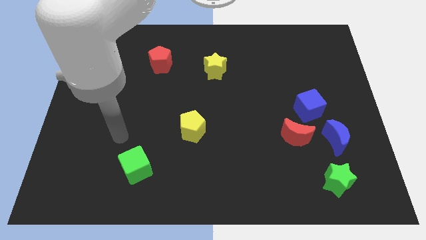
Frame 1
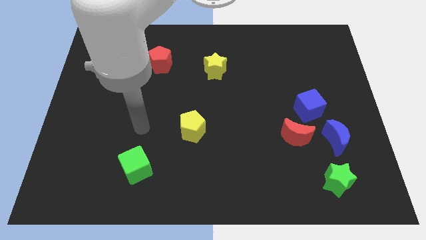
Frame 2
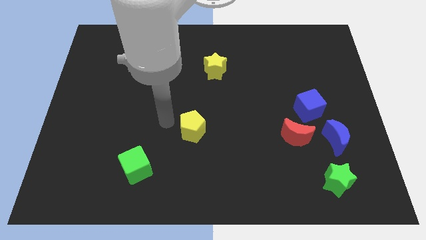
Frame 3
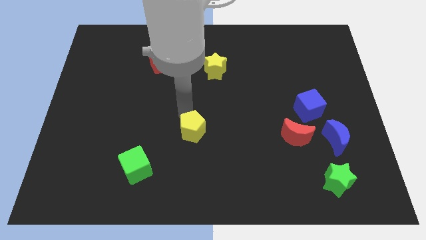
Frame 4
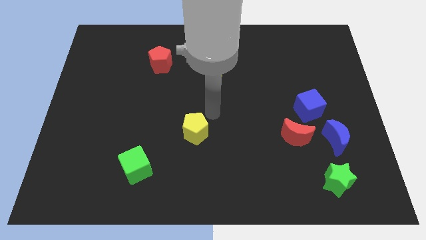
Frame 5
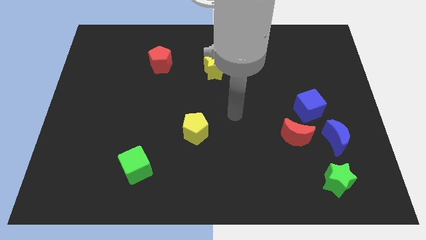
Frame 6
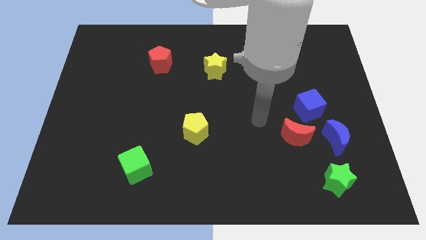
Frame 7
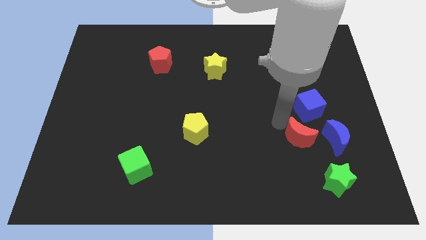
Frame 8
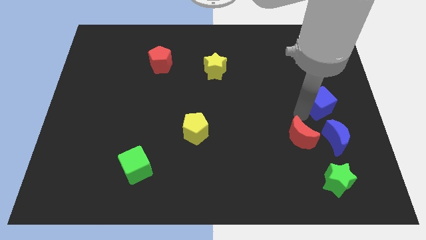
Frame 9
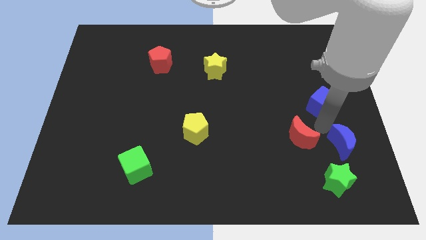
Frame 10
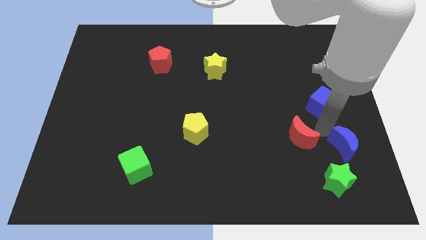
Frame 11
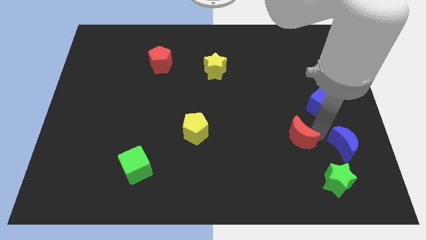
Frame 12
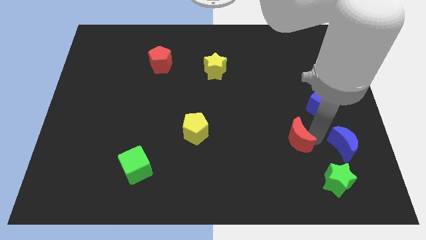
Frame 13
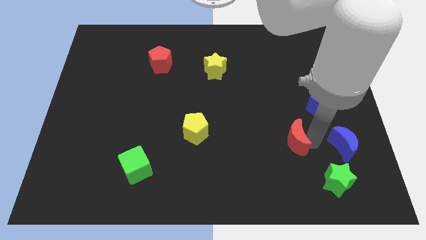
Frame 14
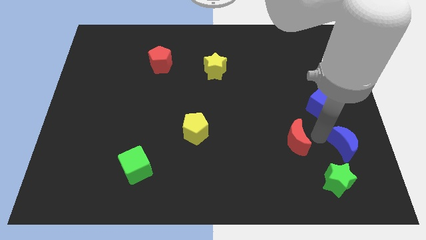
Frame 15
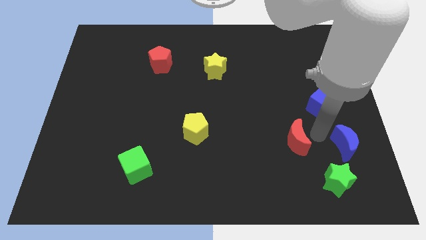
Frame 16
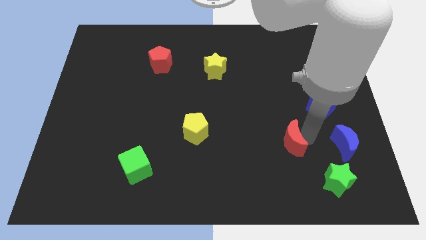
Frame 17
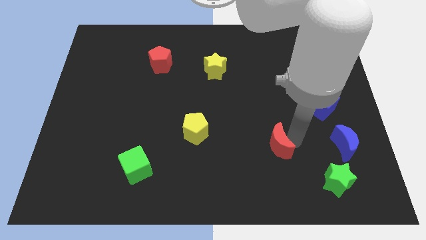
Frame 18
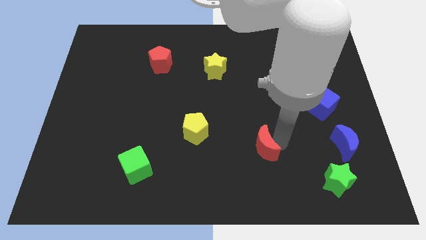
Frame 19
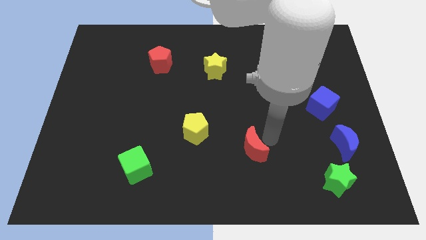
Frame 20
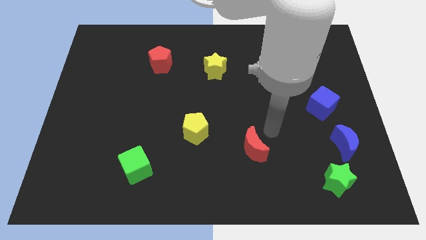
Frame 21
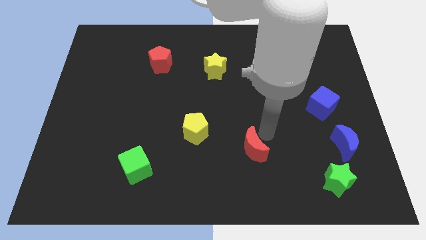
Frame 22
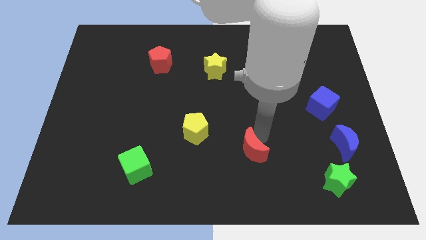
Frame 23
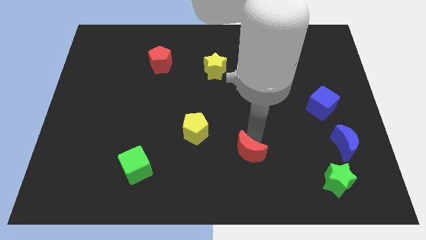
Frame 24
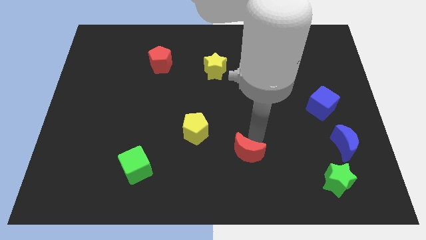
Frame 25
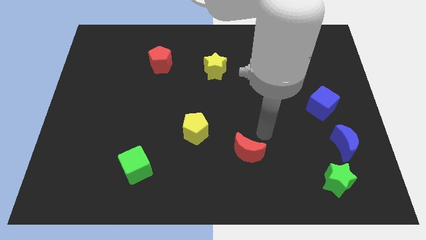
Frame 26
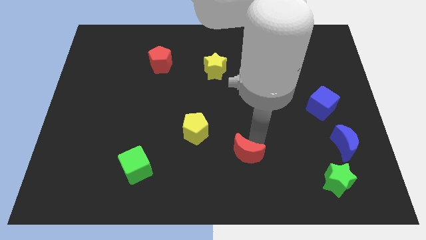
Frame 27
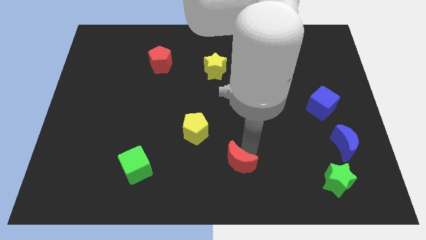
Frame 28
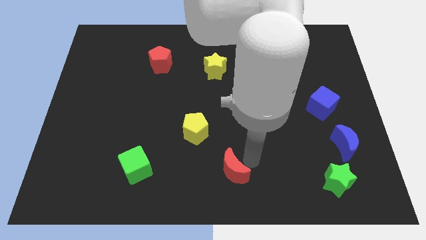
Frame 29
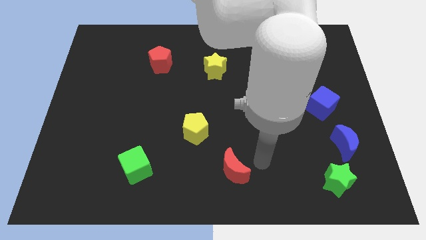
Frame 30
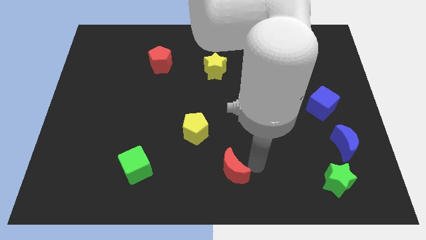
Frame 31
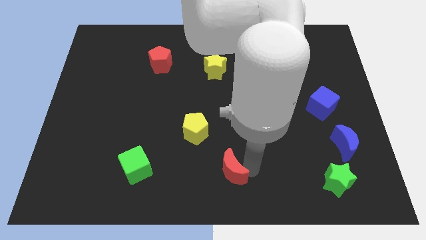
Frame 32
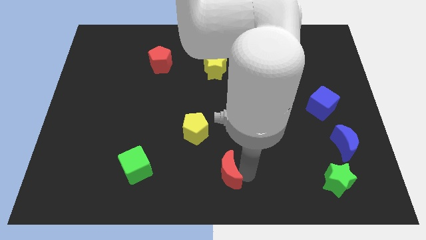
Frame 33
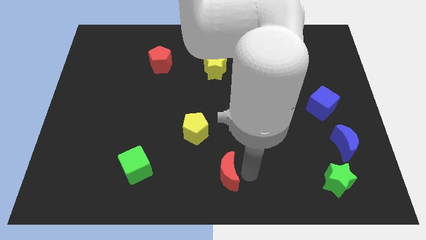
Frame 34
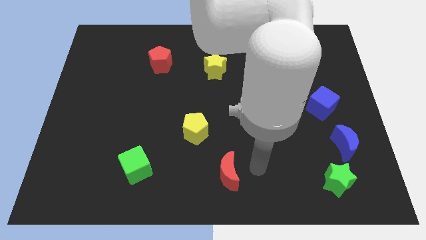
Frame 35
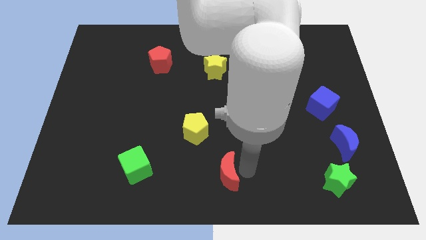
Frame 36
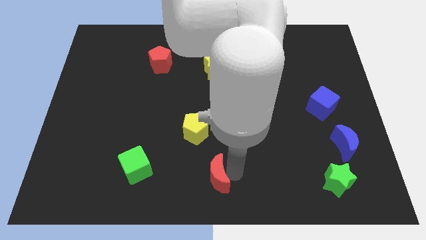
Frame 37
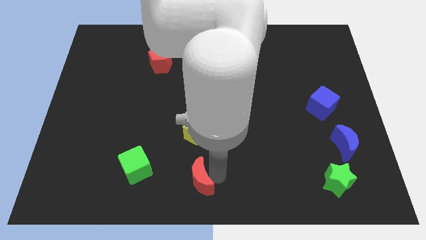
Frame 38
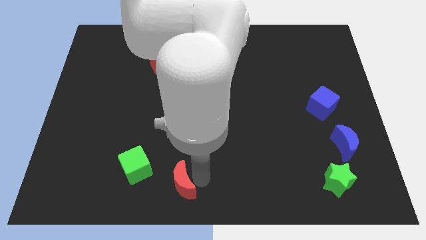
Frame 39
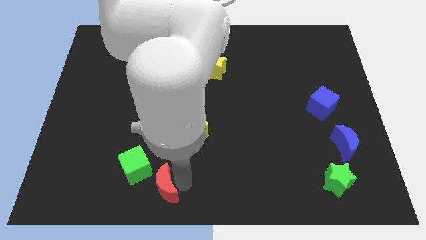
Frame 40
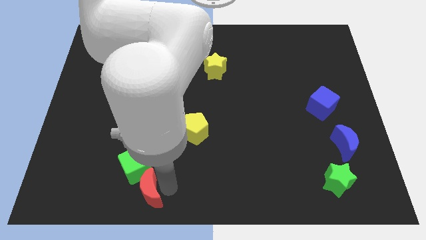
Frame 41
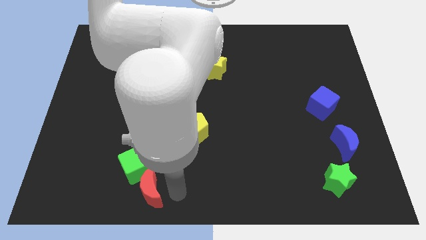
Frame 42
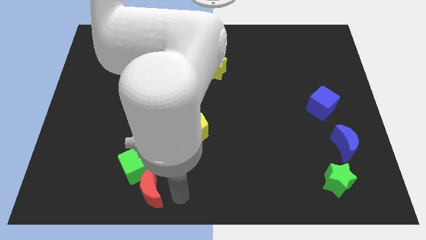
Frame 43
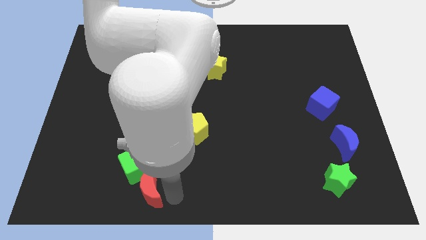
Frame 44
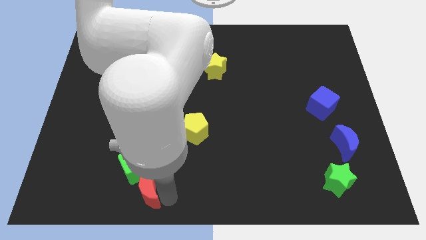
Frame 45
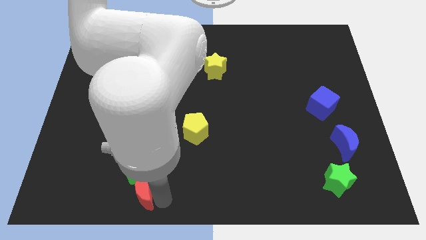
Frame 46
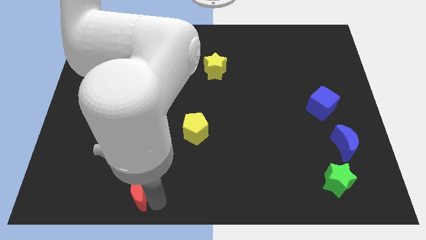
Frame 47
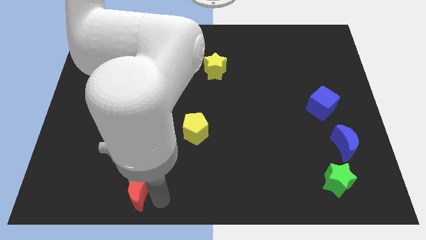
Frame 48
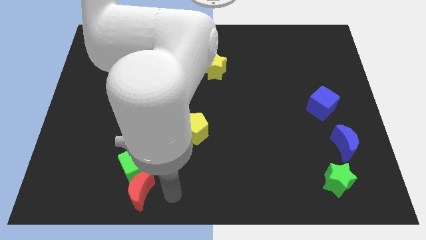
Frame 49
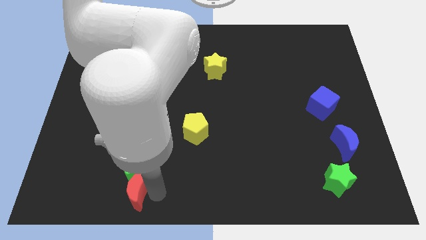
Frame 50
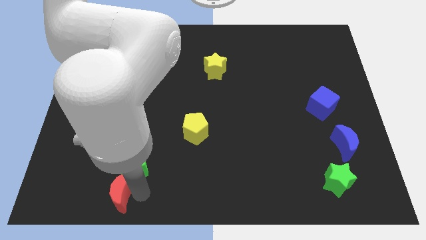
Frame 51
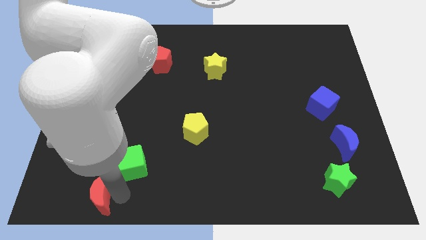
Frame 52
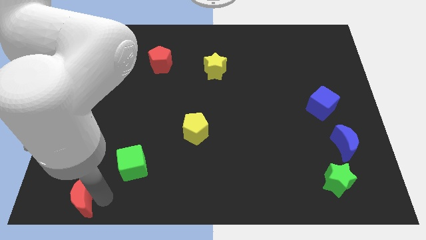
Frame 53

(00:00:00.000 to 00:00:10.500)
slide the red moon to the bottom left corner
